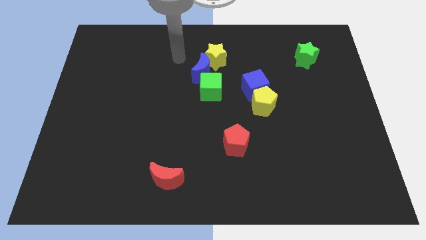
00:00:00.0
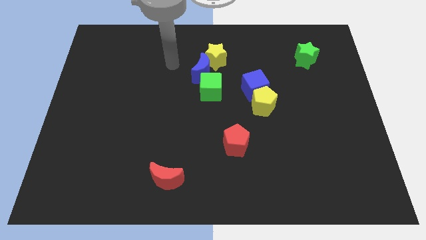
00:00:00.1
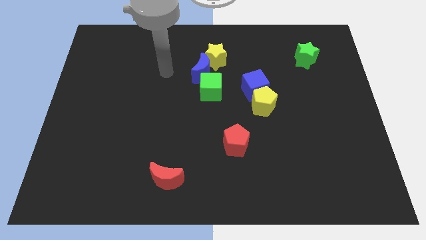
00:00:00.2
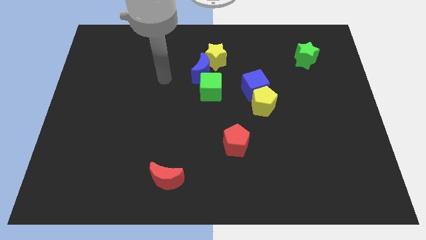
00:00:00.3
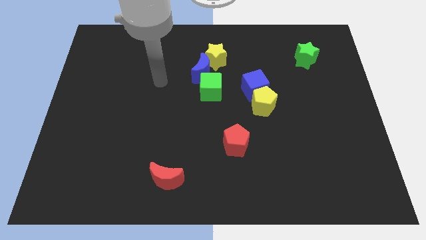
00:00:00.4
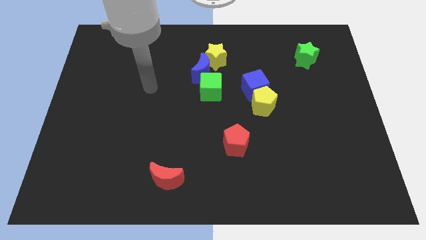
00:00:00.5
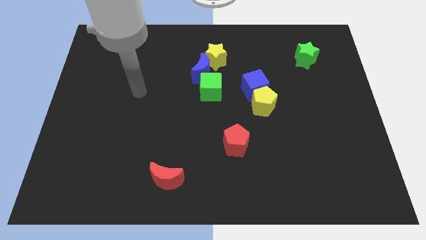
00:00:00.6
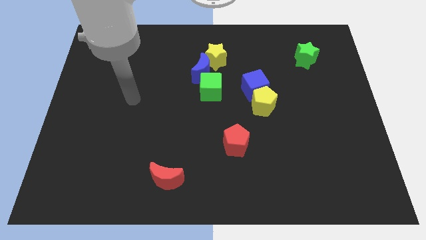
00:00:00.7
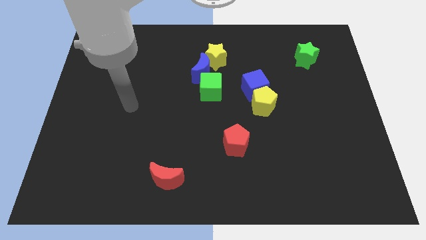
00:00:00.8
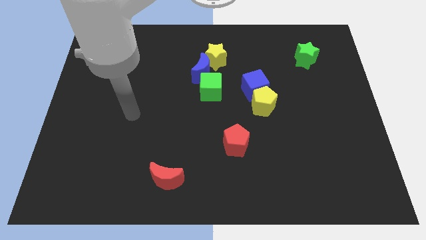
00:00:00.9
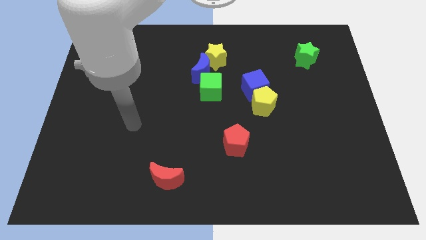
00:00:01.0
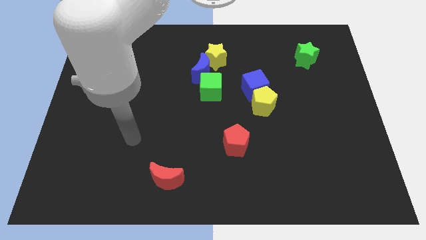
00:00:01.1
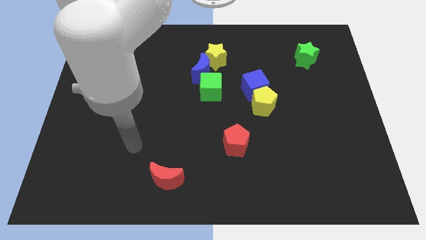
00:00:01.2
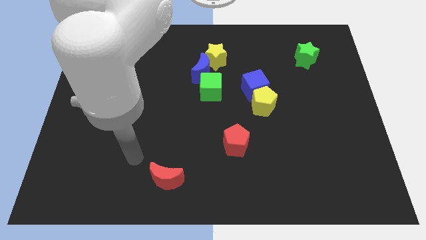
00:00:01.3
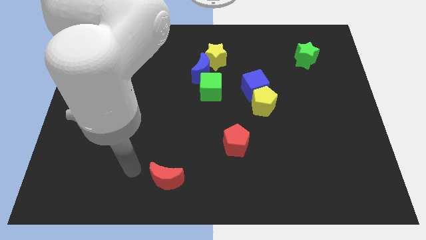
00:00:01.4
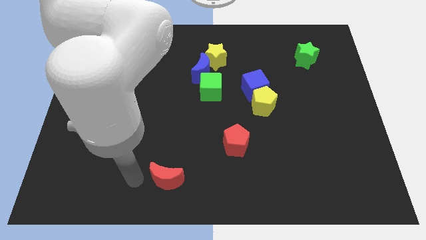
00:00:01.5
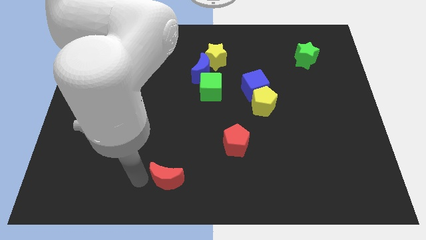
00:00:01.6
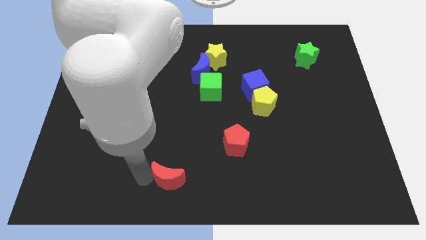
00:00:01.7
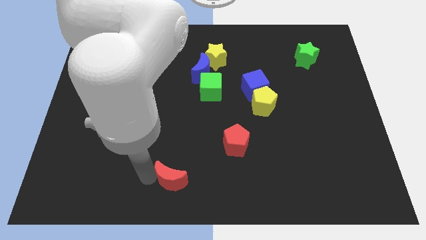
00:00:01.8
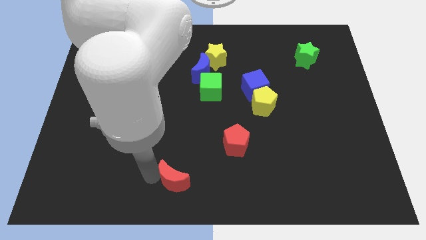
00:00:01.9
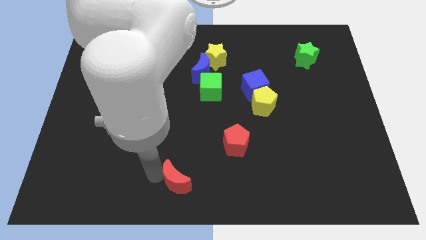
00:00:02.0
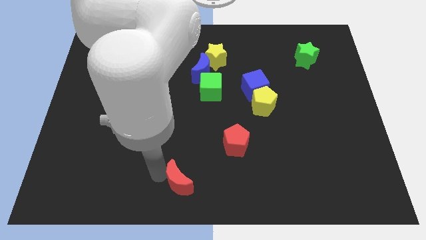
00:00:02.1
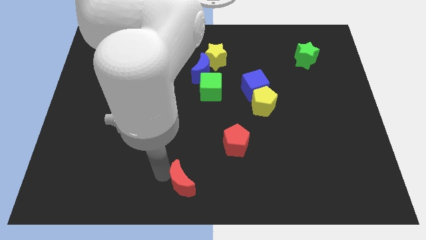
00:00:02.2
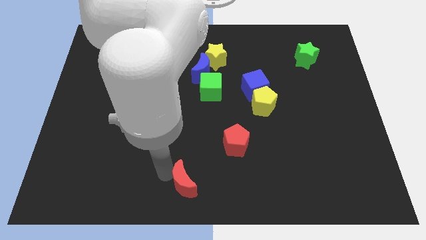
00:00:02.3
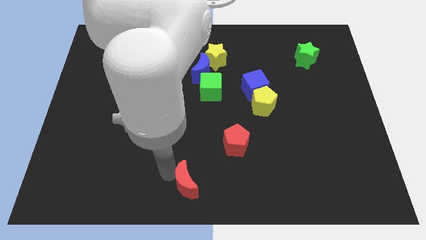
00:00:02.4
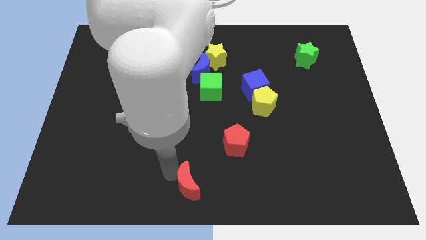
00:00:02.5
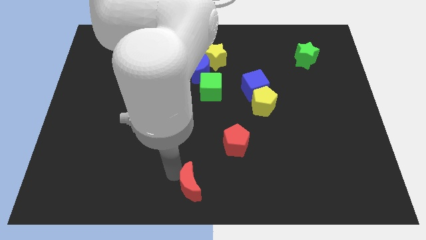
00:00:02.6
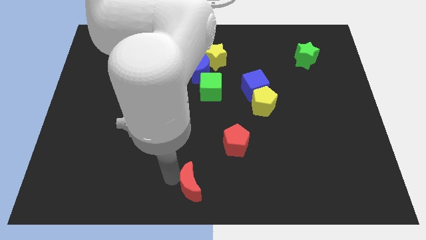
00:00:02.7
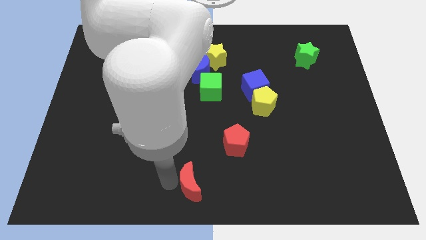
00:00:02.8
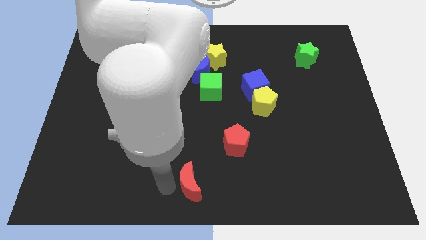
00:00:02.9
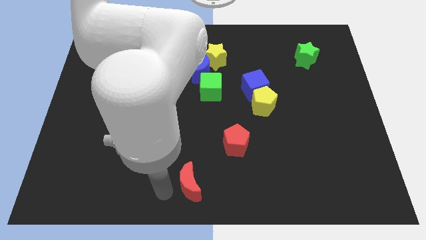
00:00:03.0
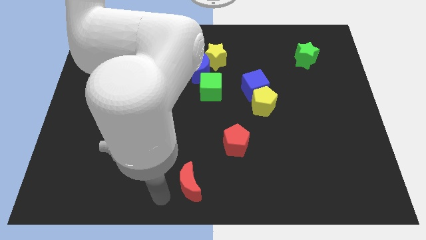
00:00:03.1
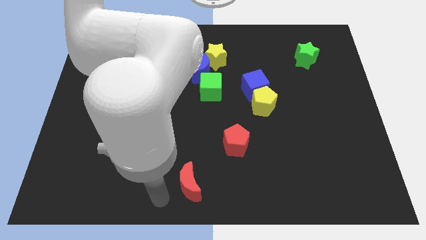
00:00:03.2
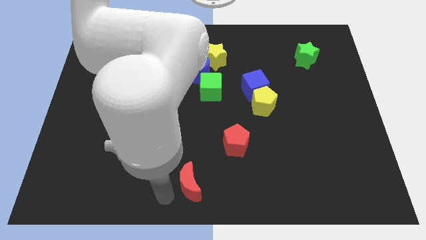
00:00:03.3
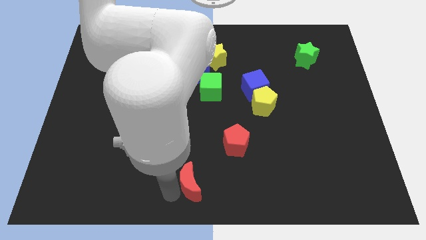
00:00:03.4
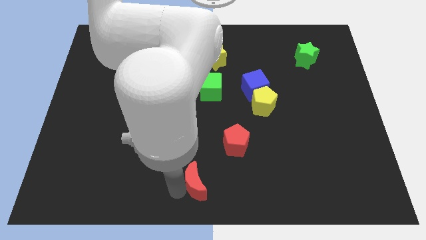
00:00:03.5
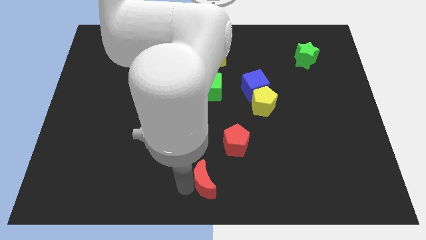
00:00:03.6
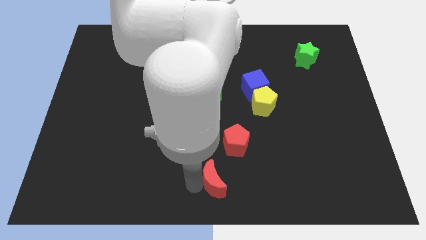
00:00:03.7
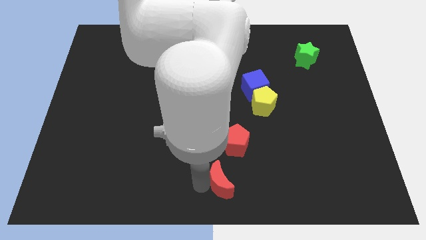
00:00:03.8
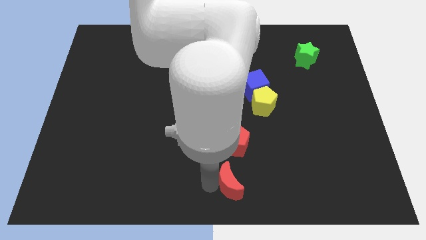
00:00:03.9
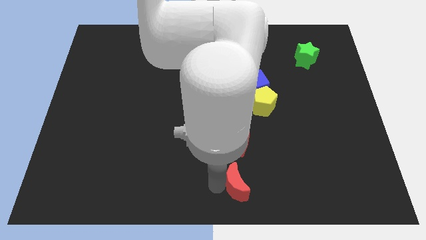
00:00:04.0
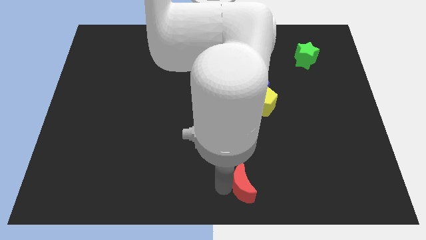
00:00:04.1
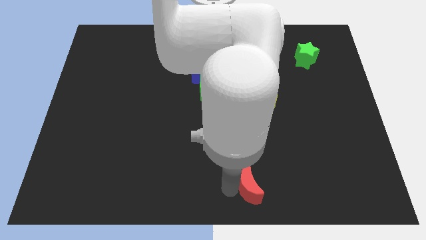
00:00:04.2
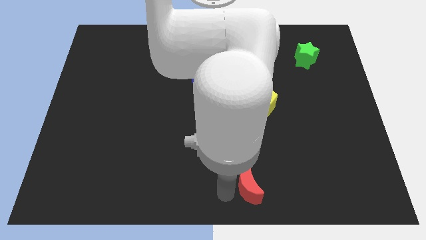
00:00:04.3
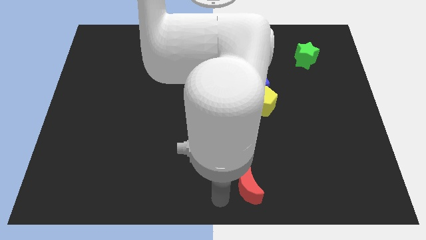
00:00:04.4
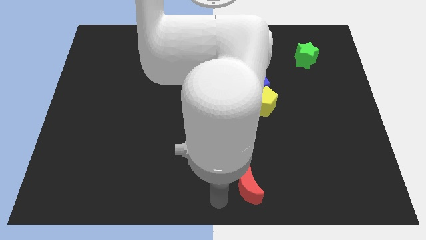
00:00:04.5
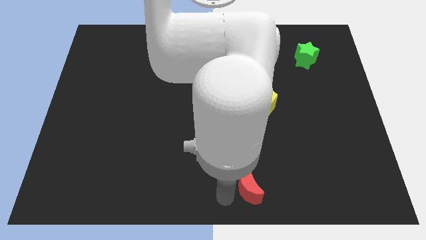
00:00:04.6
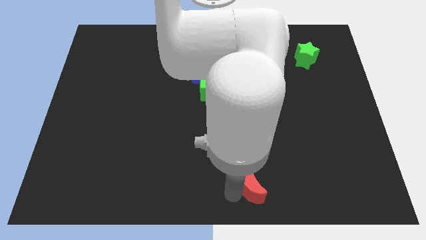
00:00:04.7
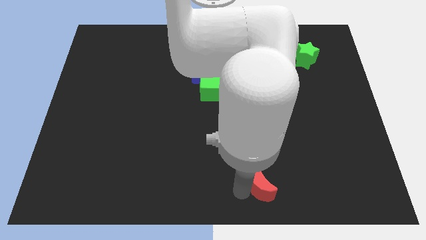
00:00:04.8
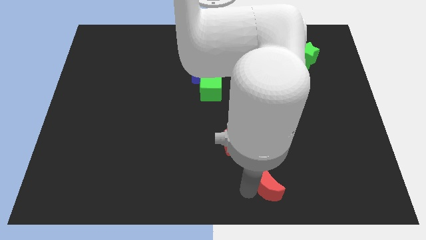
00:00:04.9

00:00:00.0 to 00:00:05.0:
push the red moon right

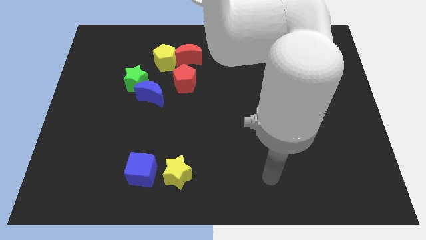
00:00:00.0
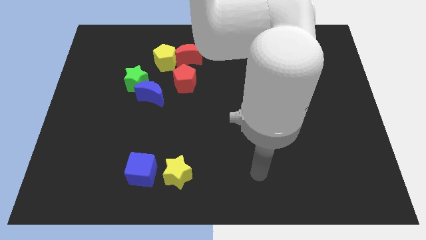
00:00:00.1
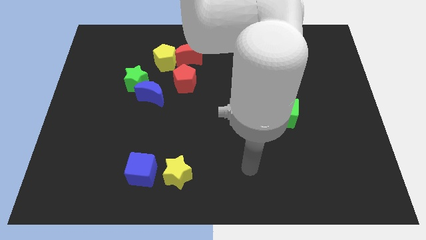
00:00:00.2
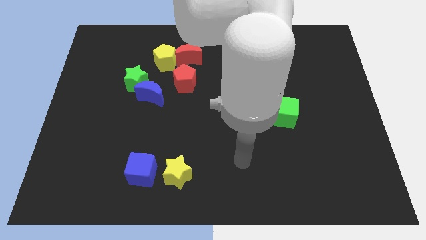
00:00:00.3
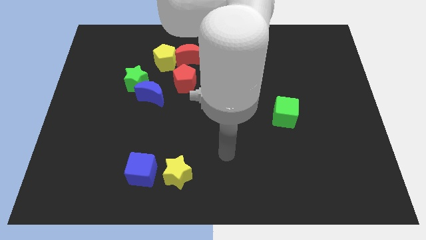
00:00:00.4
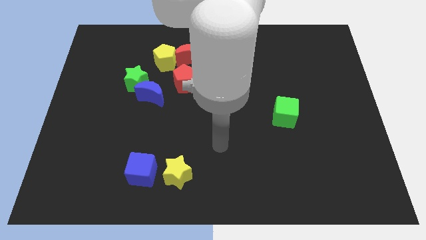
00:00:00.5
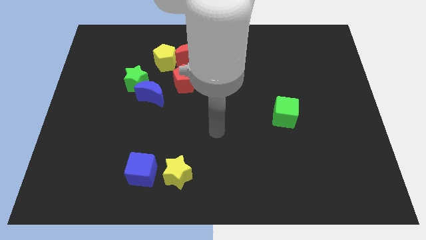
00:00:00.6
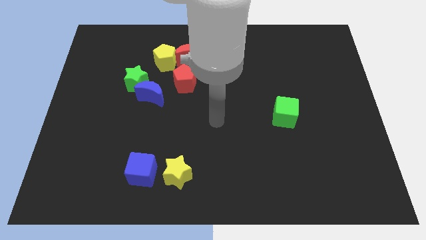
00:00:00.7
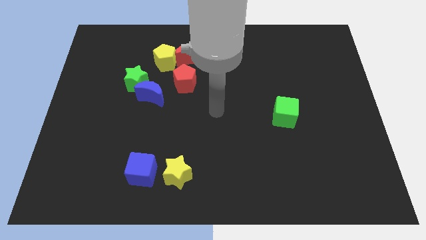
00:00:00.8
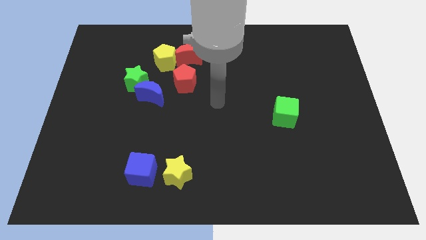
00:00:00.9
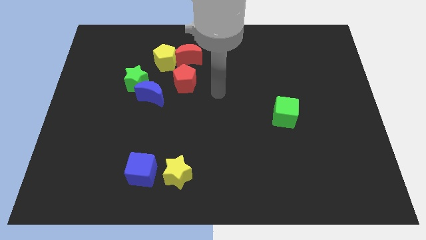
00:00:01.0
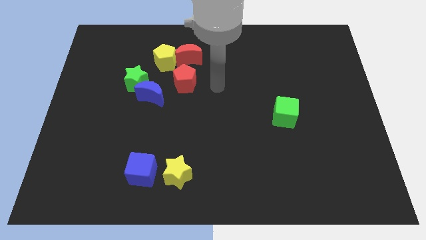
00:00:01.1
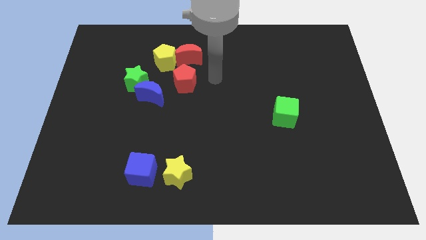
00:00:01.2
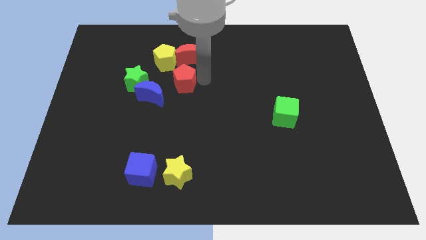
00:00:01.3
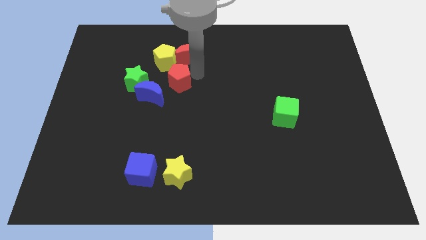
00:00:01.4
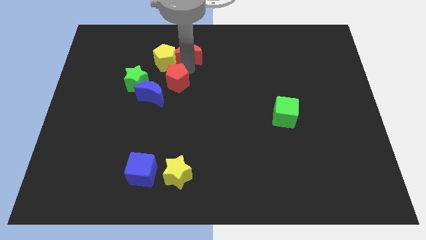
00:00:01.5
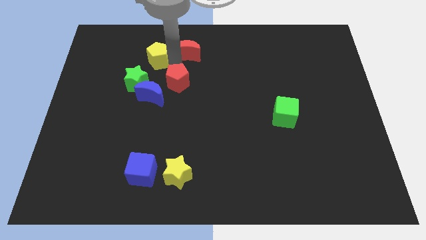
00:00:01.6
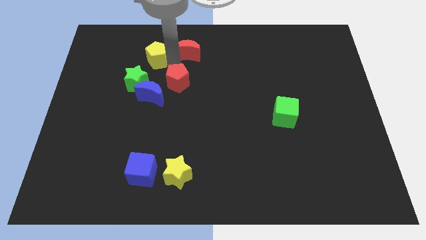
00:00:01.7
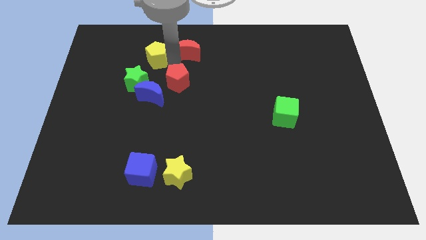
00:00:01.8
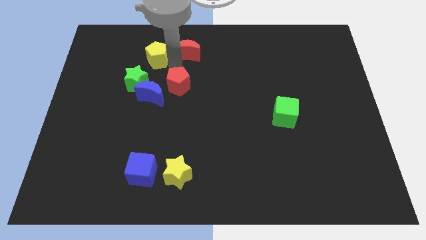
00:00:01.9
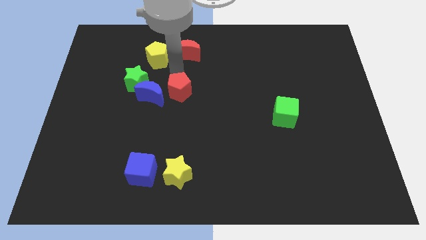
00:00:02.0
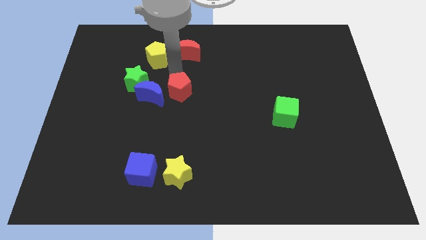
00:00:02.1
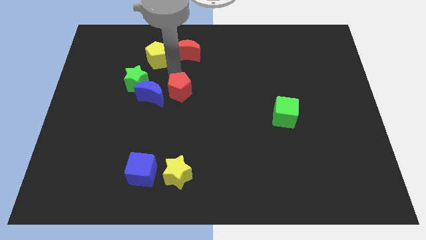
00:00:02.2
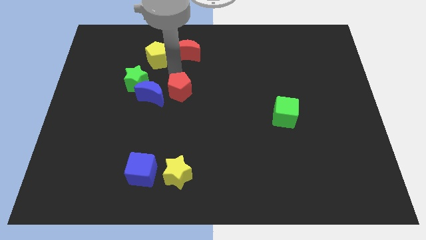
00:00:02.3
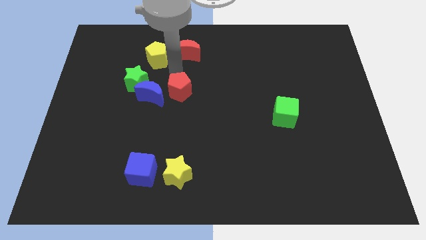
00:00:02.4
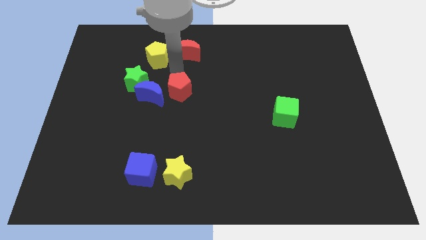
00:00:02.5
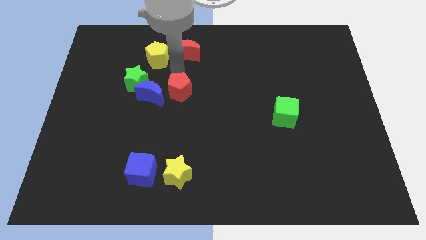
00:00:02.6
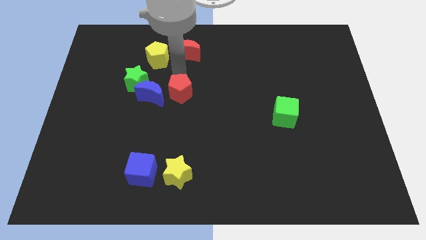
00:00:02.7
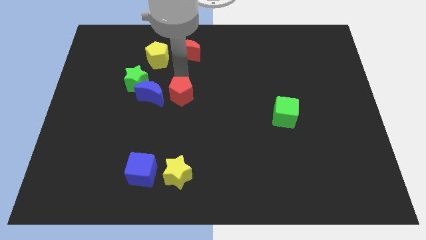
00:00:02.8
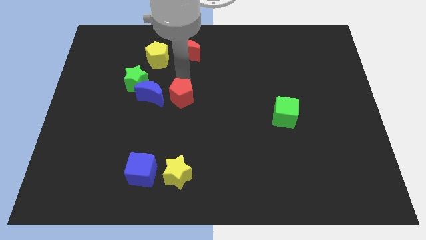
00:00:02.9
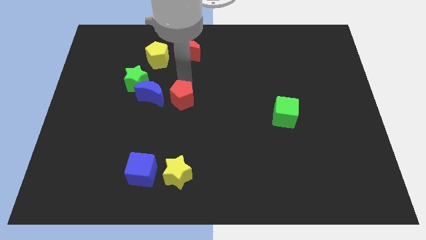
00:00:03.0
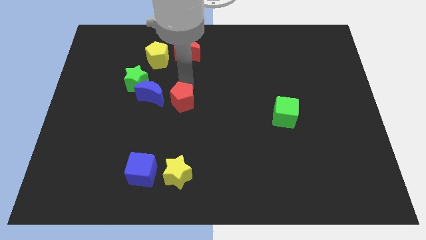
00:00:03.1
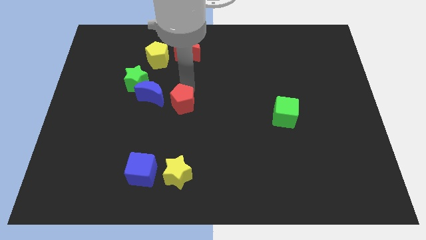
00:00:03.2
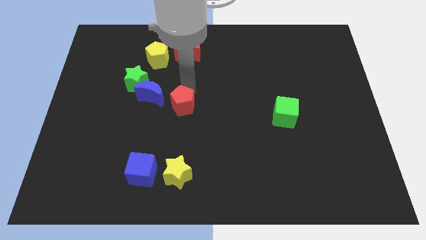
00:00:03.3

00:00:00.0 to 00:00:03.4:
slightly push the red pentagon down
